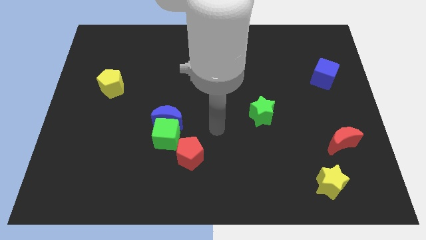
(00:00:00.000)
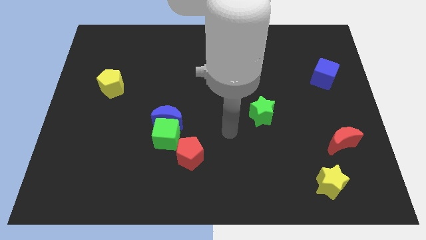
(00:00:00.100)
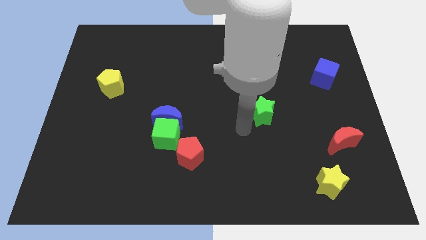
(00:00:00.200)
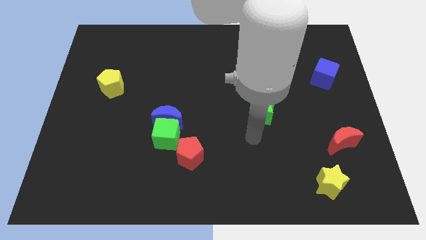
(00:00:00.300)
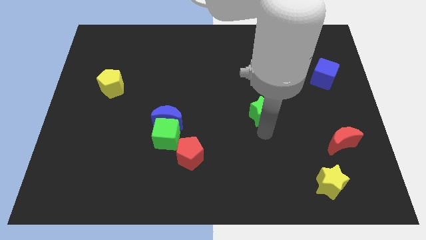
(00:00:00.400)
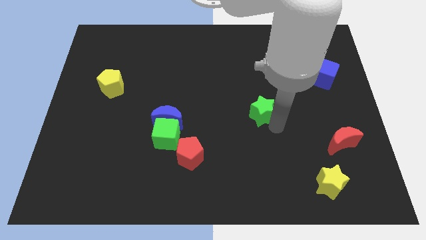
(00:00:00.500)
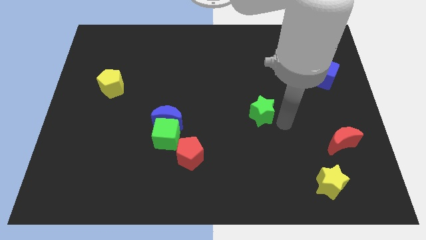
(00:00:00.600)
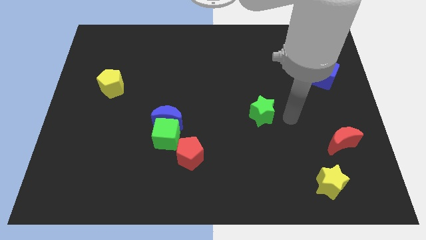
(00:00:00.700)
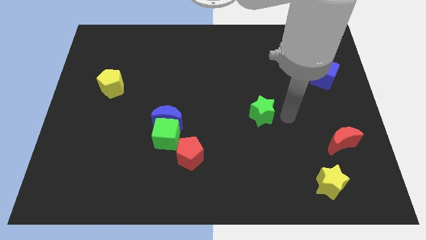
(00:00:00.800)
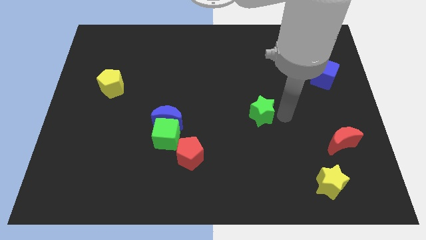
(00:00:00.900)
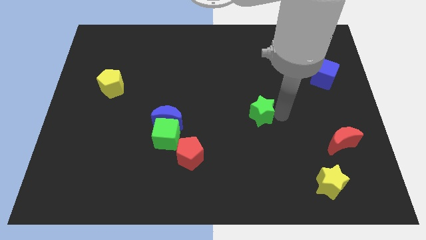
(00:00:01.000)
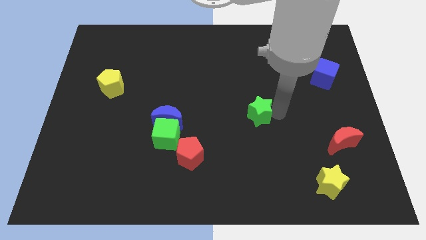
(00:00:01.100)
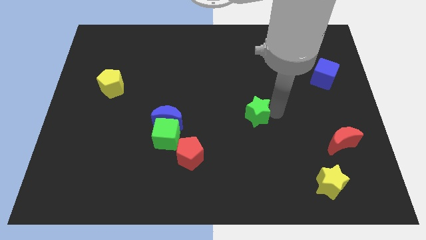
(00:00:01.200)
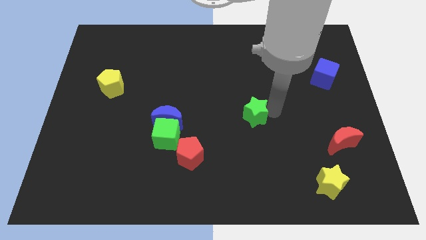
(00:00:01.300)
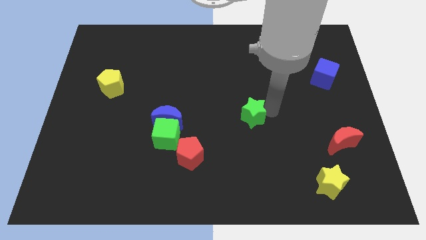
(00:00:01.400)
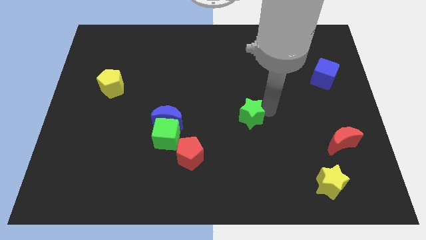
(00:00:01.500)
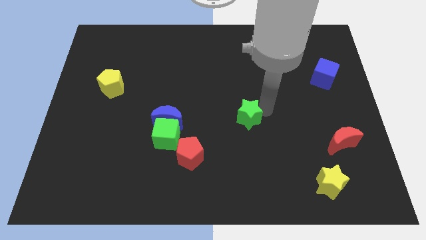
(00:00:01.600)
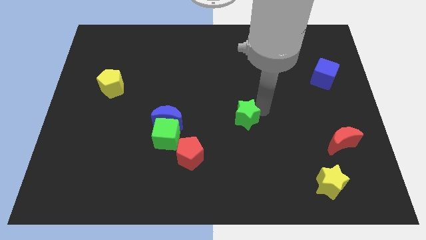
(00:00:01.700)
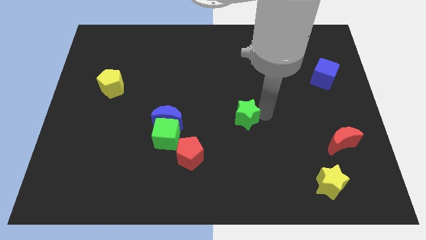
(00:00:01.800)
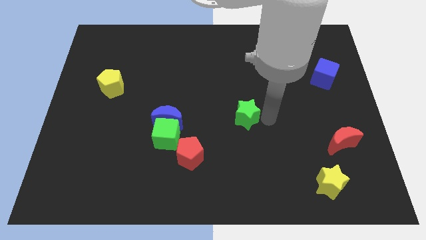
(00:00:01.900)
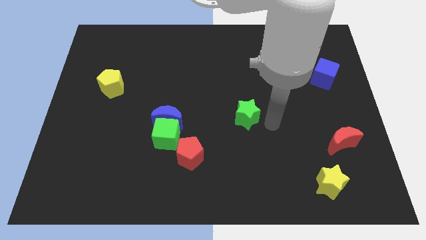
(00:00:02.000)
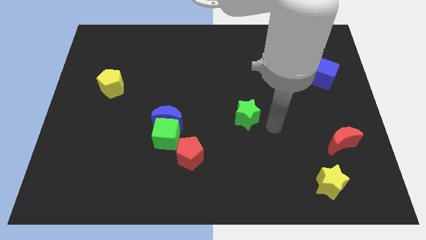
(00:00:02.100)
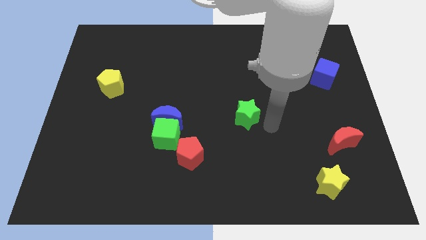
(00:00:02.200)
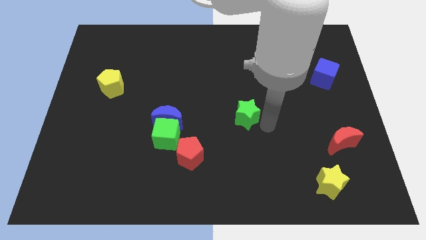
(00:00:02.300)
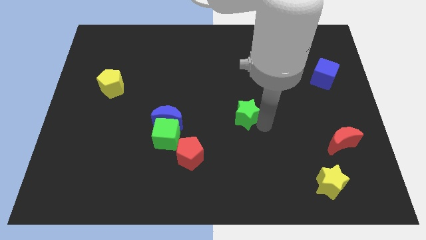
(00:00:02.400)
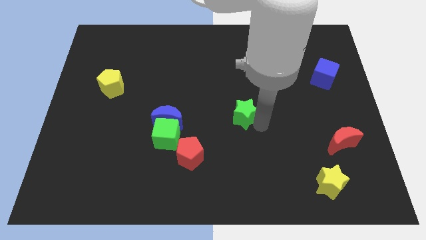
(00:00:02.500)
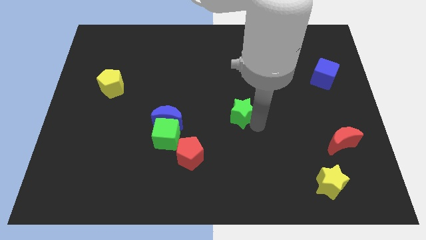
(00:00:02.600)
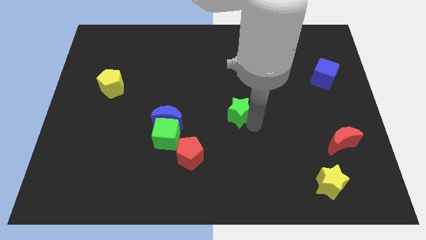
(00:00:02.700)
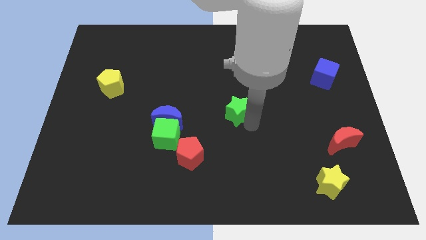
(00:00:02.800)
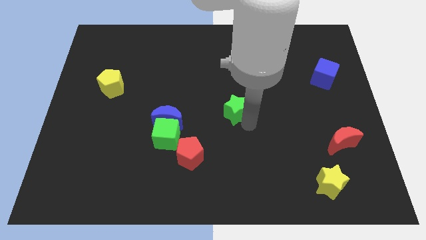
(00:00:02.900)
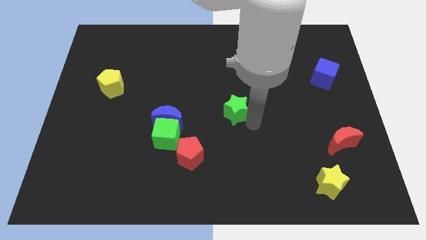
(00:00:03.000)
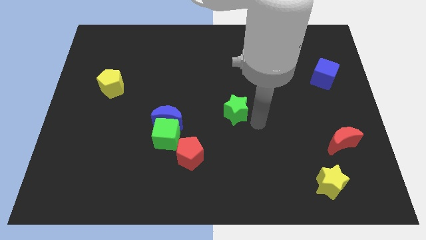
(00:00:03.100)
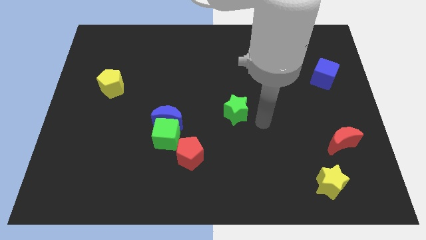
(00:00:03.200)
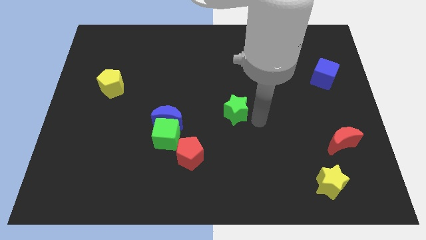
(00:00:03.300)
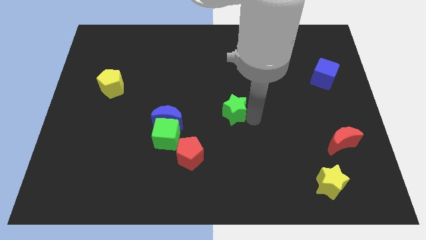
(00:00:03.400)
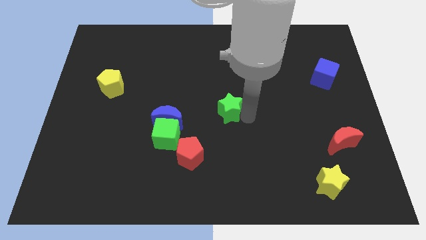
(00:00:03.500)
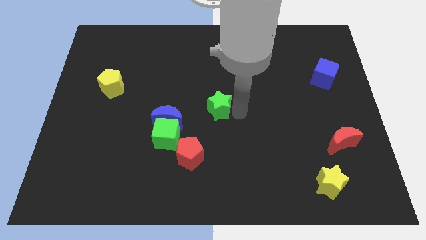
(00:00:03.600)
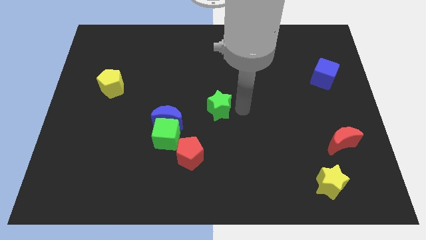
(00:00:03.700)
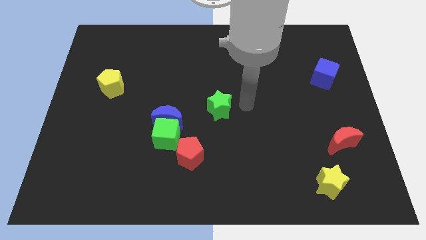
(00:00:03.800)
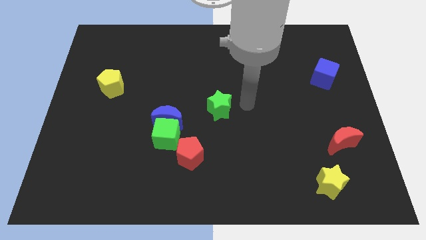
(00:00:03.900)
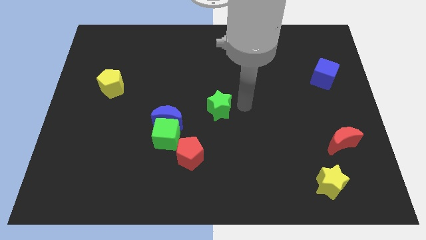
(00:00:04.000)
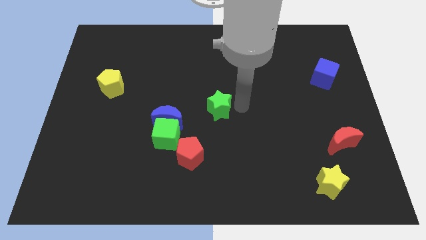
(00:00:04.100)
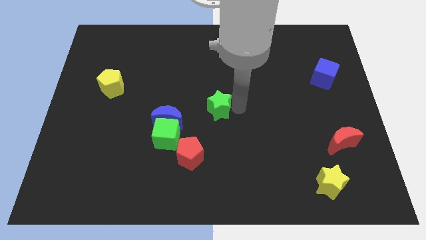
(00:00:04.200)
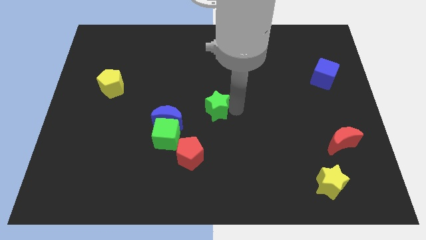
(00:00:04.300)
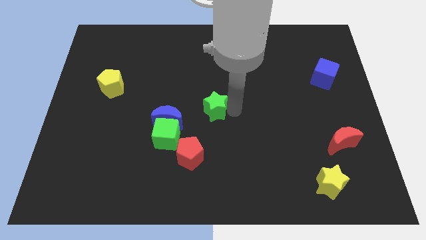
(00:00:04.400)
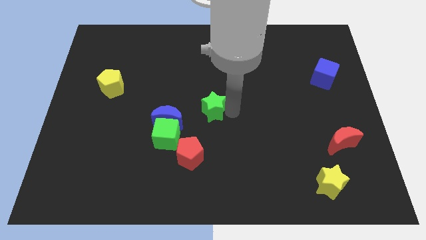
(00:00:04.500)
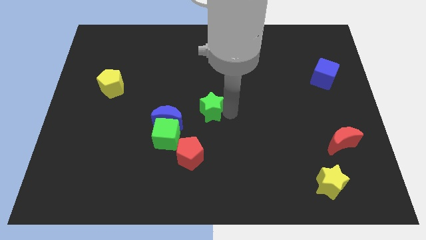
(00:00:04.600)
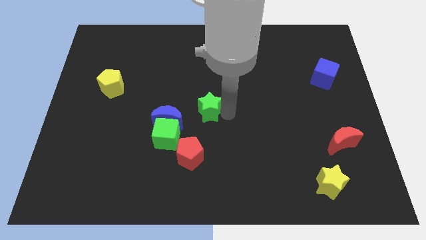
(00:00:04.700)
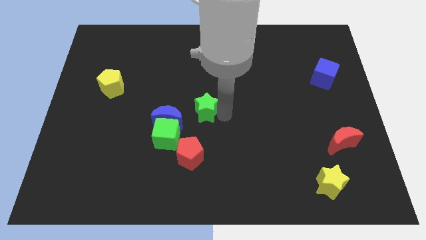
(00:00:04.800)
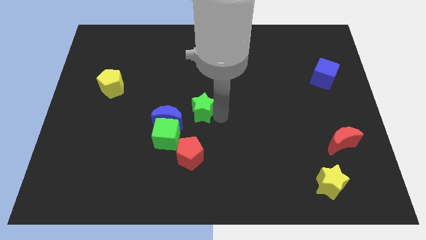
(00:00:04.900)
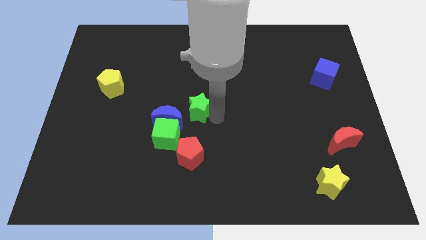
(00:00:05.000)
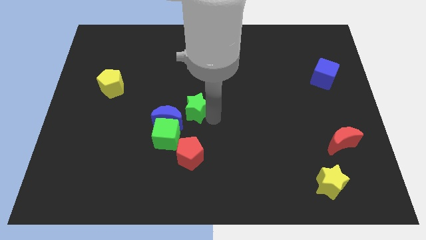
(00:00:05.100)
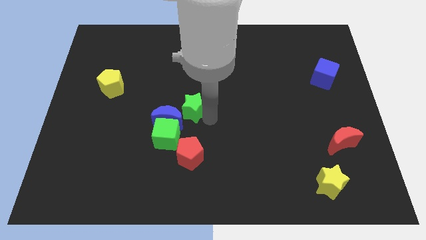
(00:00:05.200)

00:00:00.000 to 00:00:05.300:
push the green star next to the blue moon

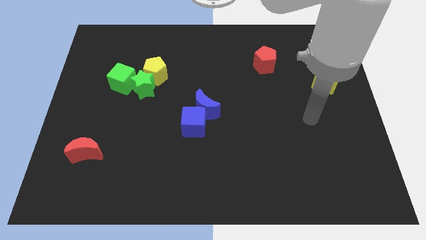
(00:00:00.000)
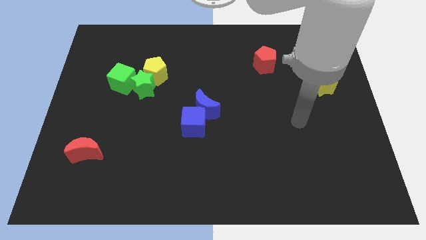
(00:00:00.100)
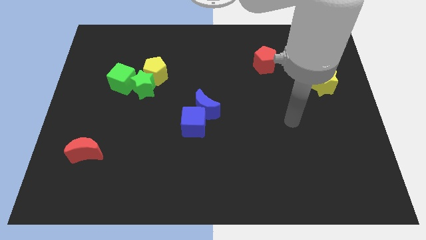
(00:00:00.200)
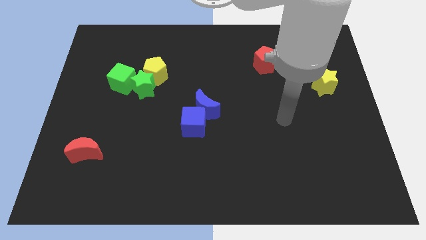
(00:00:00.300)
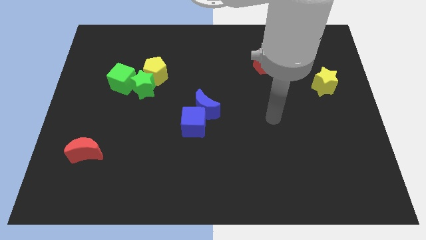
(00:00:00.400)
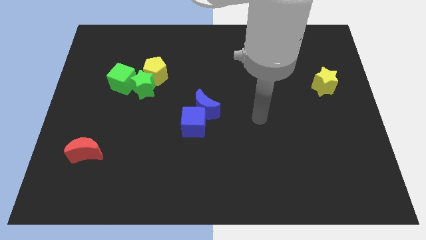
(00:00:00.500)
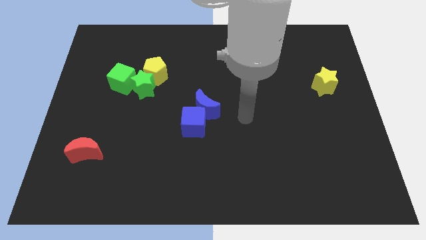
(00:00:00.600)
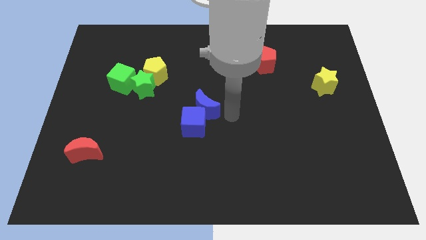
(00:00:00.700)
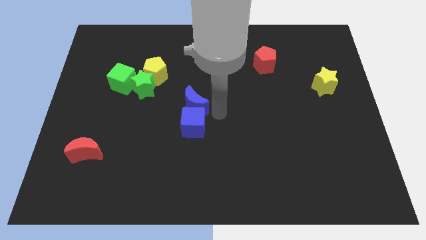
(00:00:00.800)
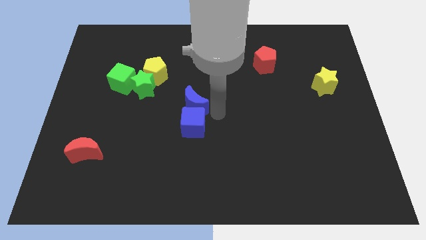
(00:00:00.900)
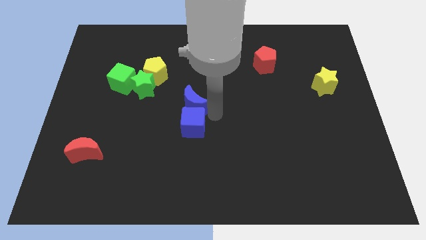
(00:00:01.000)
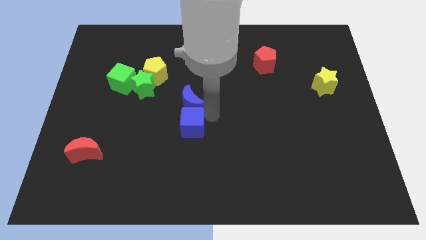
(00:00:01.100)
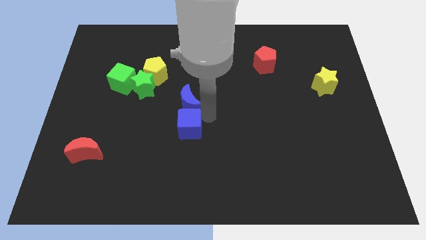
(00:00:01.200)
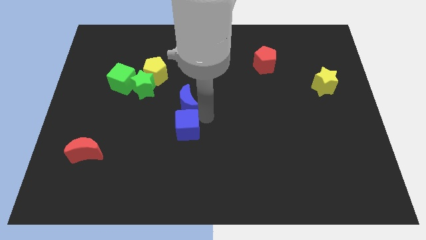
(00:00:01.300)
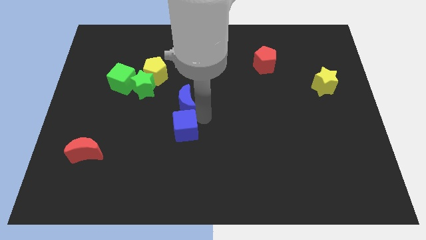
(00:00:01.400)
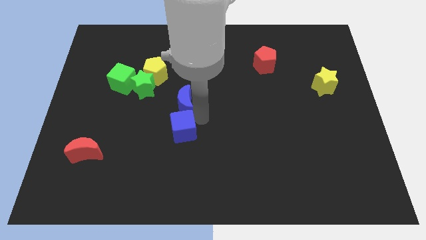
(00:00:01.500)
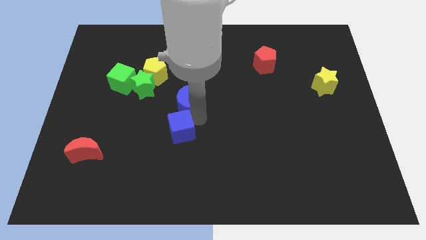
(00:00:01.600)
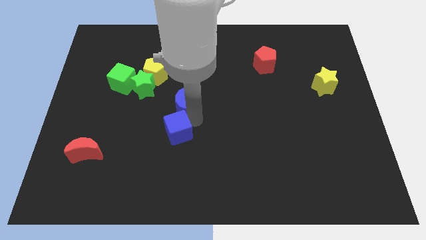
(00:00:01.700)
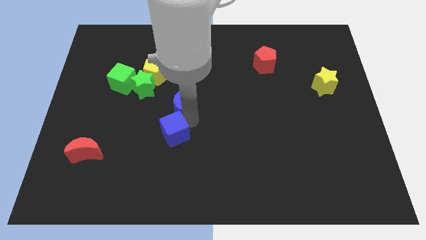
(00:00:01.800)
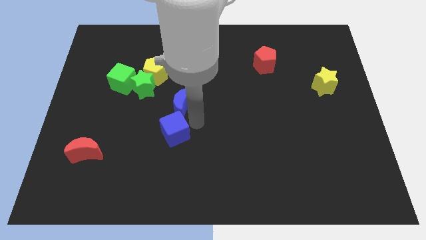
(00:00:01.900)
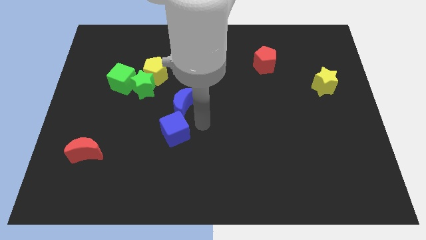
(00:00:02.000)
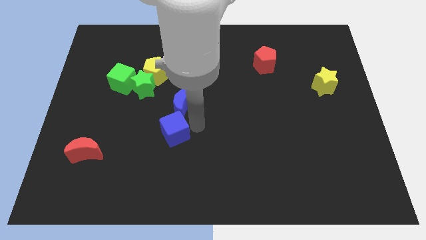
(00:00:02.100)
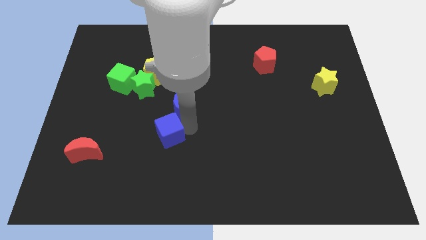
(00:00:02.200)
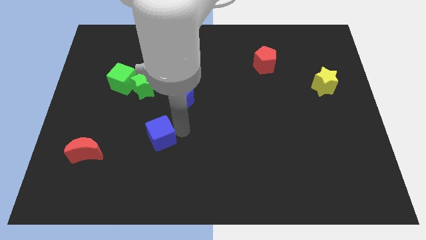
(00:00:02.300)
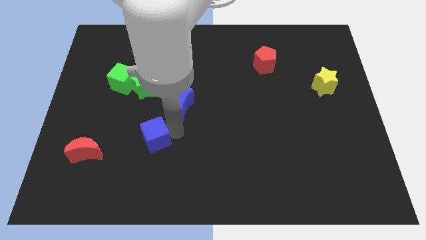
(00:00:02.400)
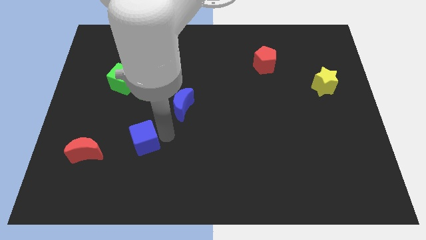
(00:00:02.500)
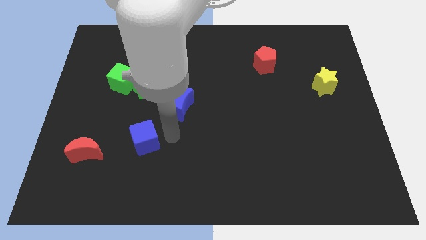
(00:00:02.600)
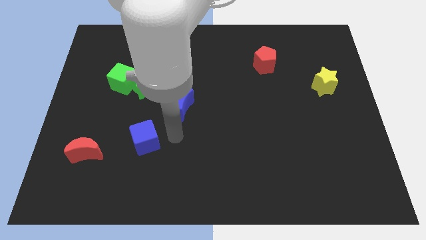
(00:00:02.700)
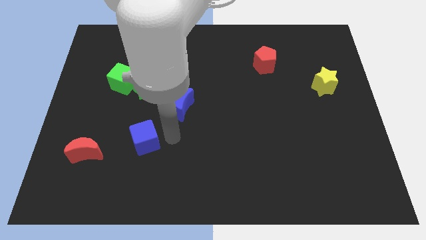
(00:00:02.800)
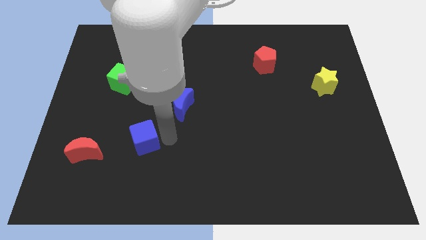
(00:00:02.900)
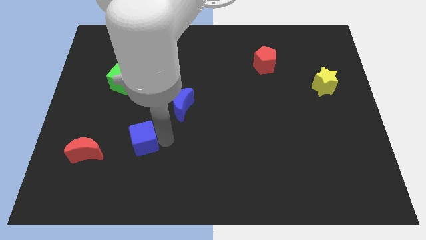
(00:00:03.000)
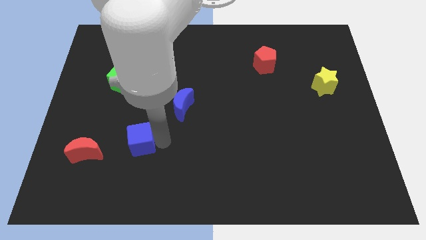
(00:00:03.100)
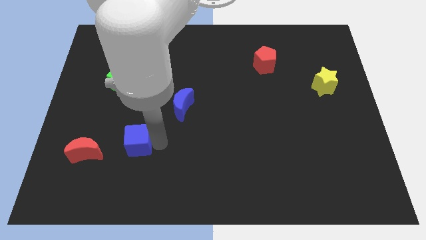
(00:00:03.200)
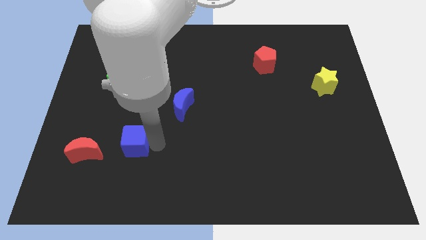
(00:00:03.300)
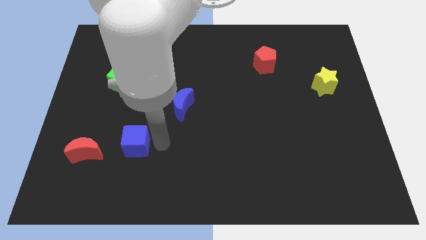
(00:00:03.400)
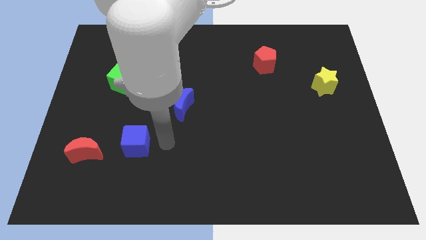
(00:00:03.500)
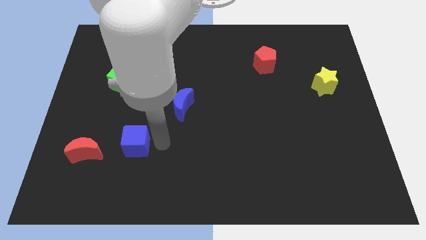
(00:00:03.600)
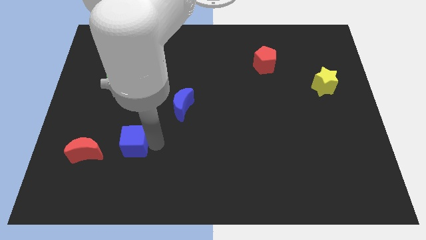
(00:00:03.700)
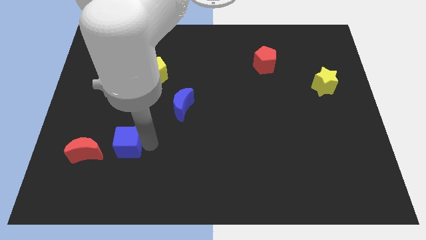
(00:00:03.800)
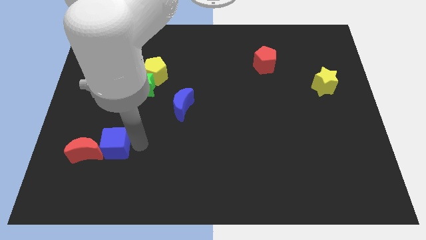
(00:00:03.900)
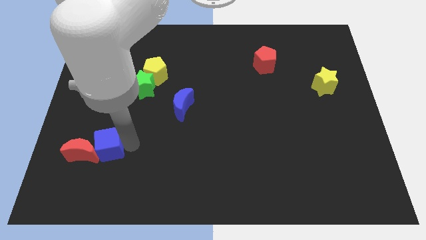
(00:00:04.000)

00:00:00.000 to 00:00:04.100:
slide the blue cube next to the red moon
